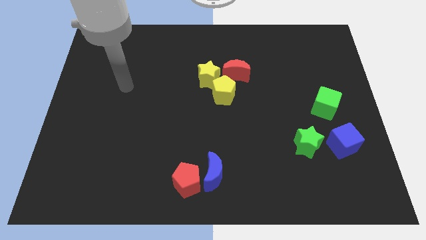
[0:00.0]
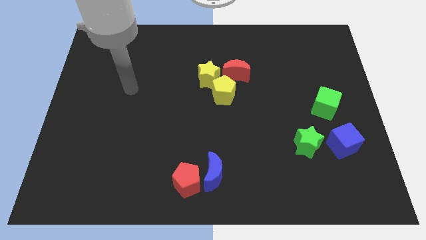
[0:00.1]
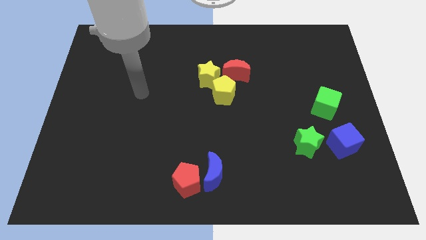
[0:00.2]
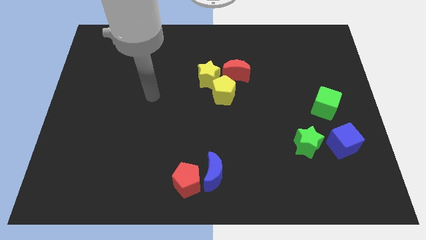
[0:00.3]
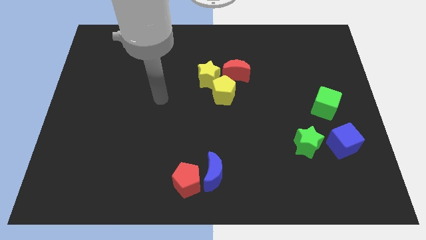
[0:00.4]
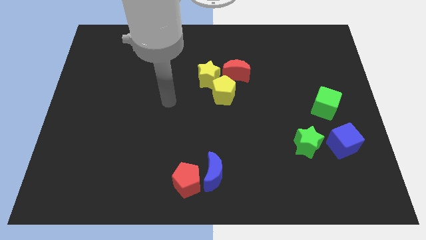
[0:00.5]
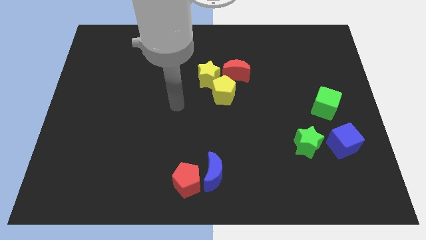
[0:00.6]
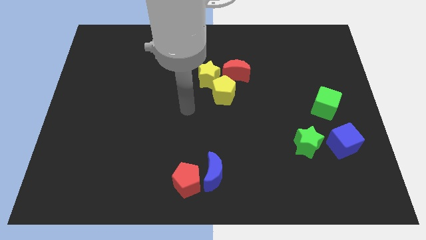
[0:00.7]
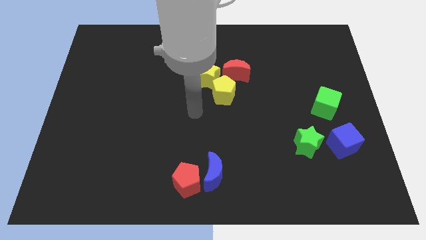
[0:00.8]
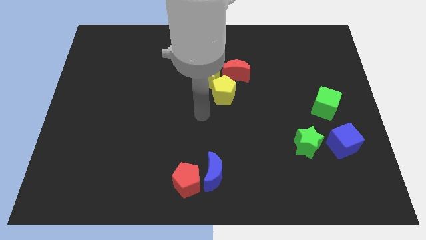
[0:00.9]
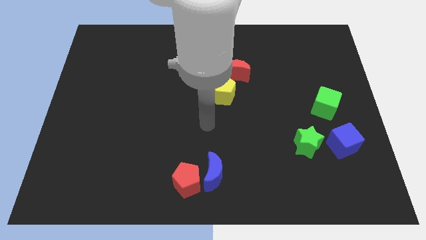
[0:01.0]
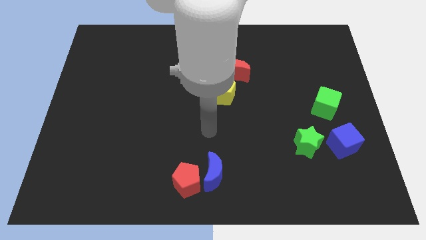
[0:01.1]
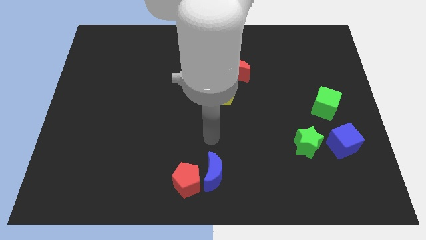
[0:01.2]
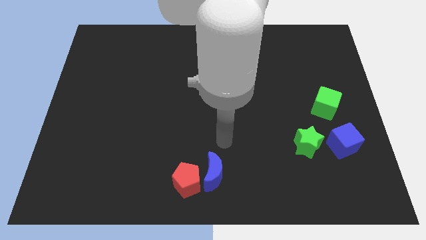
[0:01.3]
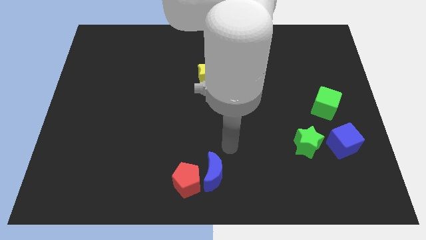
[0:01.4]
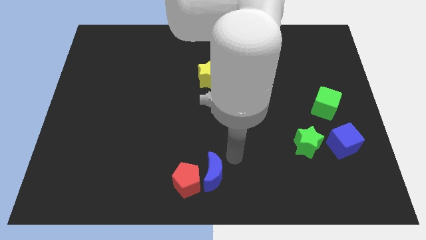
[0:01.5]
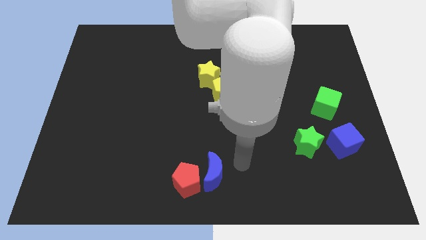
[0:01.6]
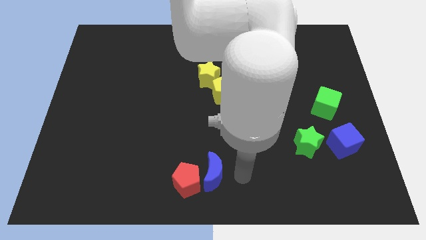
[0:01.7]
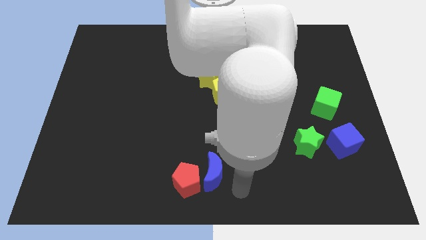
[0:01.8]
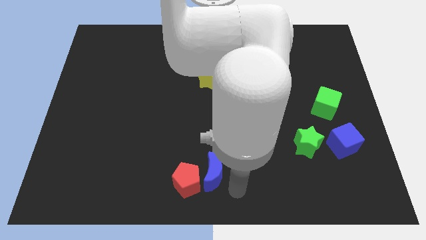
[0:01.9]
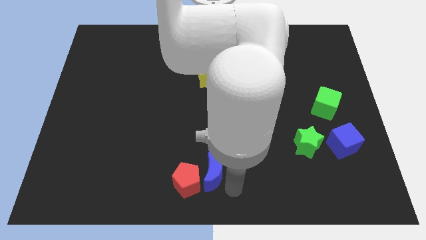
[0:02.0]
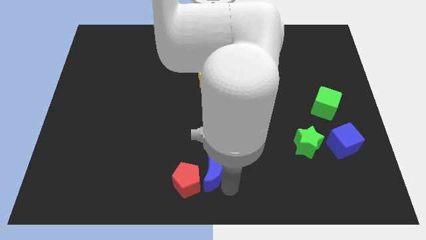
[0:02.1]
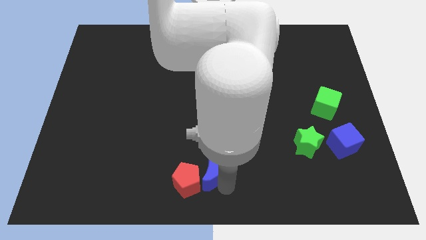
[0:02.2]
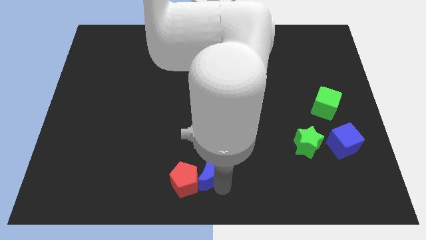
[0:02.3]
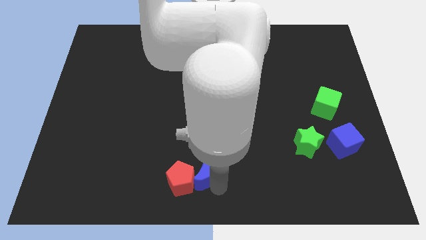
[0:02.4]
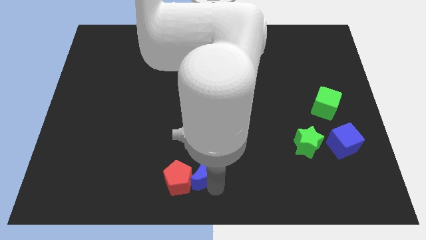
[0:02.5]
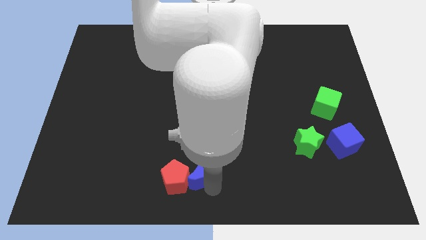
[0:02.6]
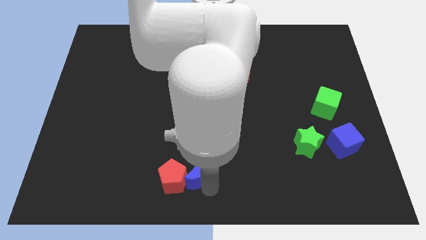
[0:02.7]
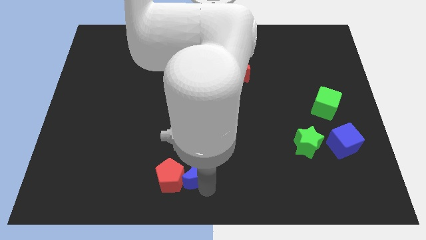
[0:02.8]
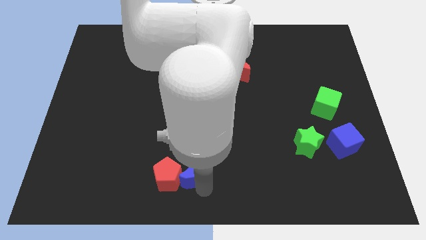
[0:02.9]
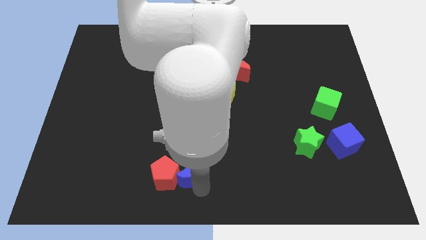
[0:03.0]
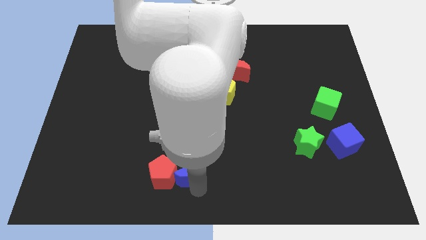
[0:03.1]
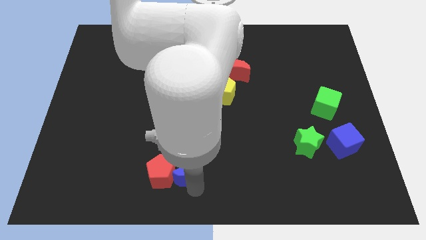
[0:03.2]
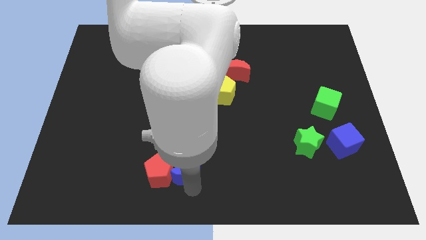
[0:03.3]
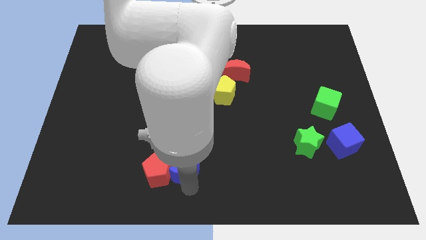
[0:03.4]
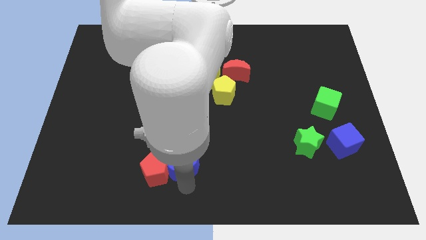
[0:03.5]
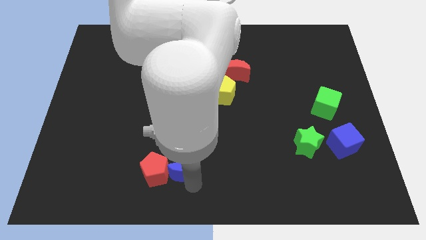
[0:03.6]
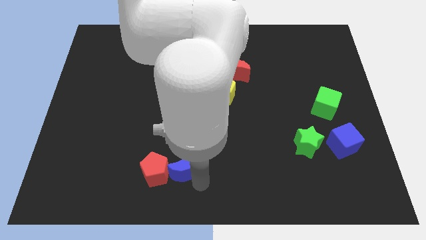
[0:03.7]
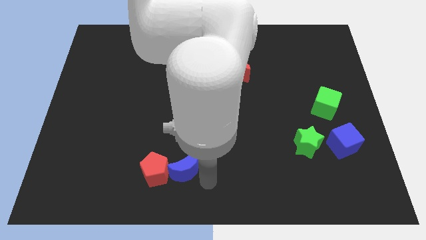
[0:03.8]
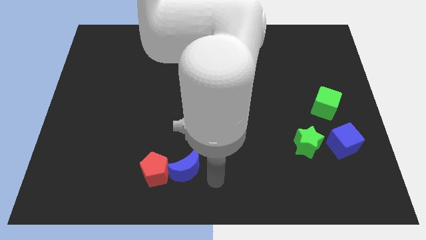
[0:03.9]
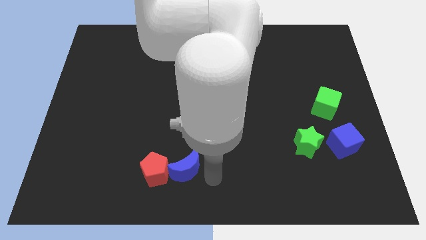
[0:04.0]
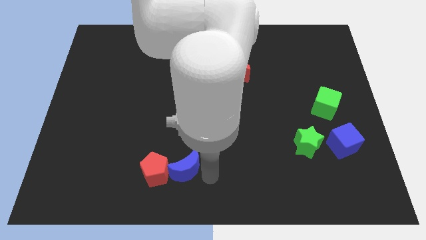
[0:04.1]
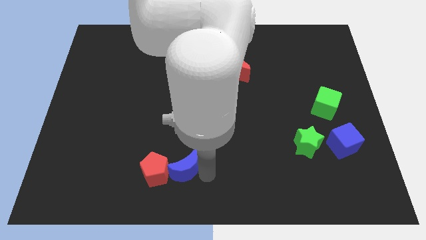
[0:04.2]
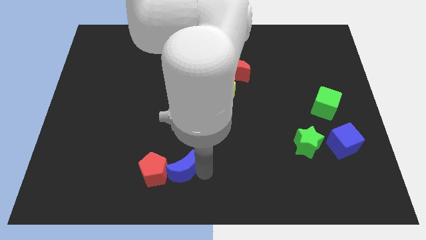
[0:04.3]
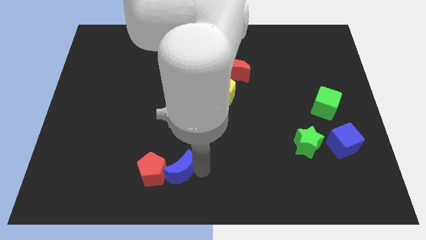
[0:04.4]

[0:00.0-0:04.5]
move the blue moon a bit left

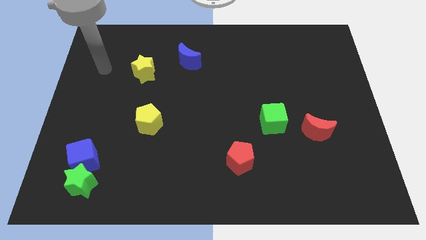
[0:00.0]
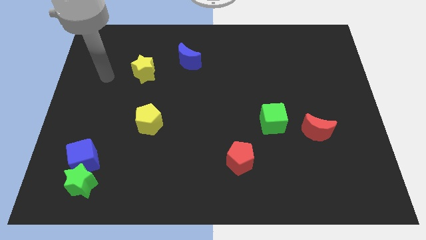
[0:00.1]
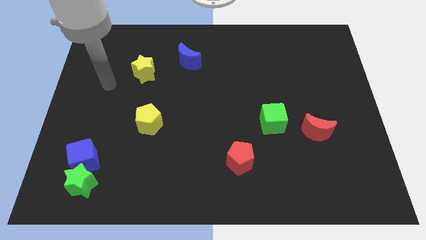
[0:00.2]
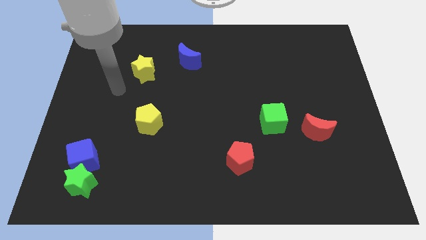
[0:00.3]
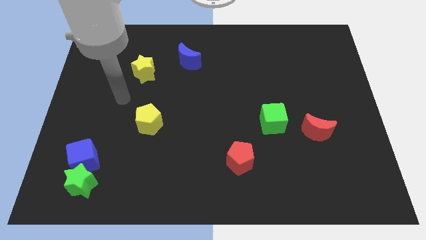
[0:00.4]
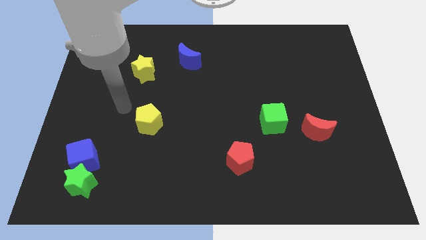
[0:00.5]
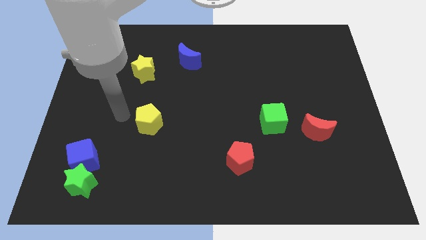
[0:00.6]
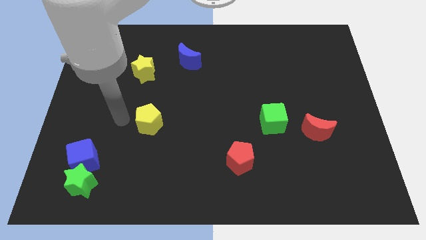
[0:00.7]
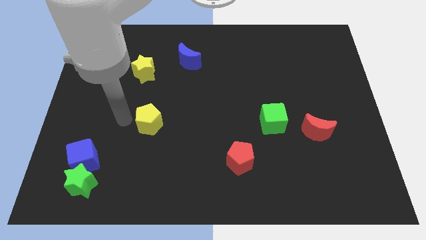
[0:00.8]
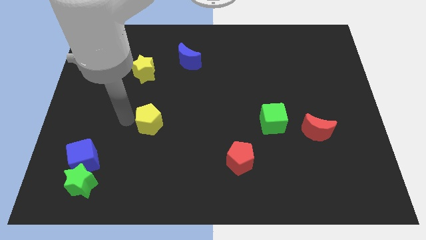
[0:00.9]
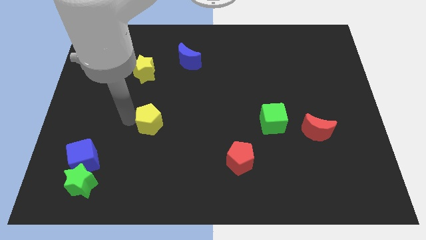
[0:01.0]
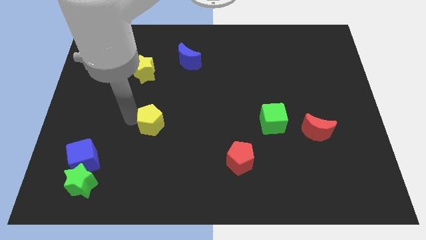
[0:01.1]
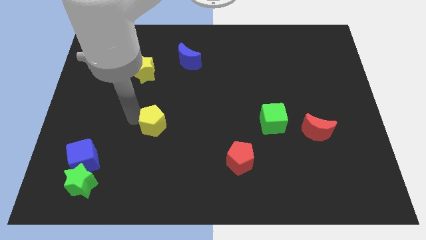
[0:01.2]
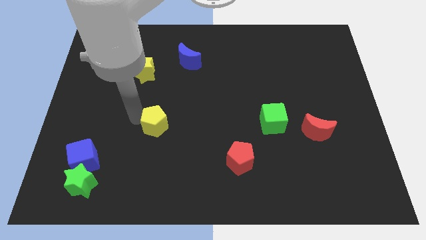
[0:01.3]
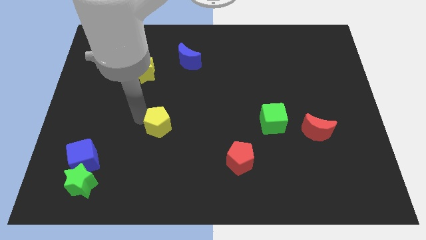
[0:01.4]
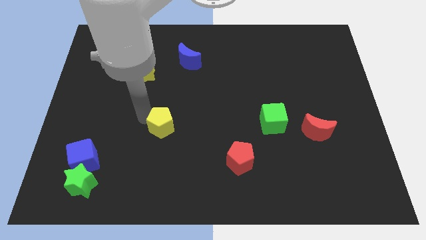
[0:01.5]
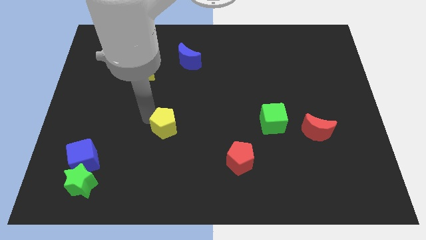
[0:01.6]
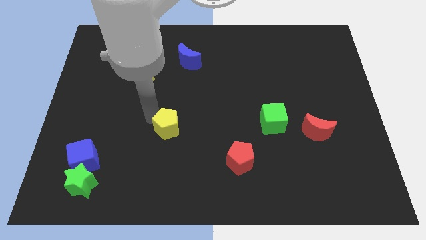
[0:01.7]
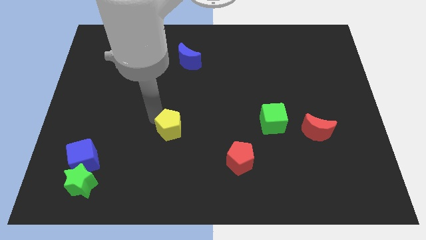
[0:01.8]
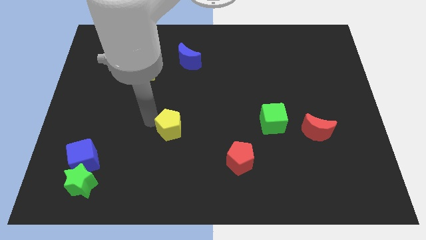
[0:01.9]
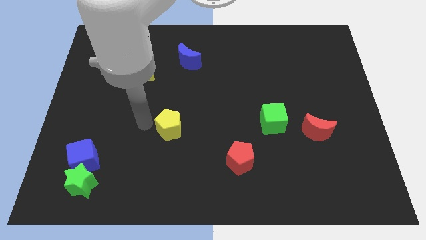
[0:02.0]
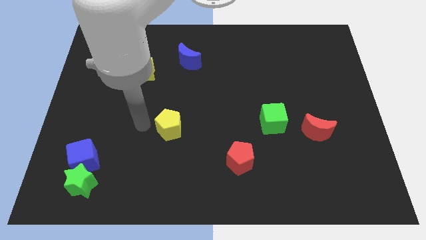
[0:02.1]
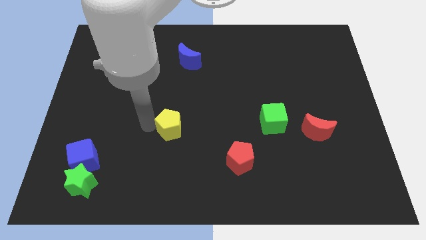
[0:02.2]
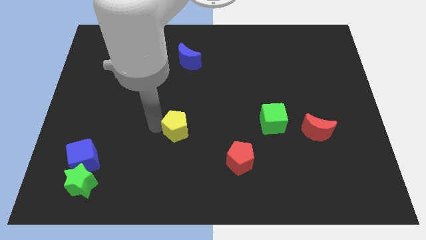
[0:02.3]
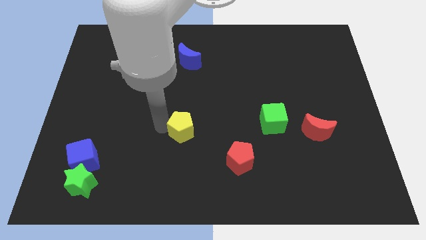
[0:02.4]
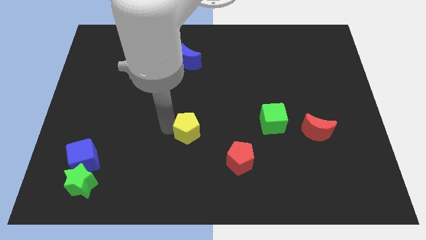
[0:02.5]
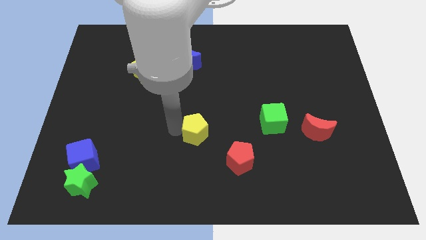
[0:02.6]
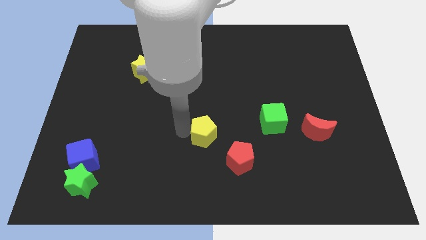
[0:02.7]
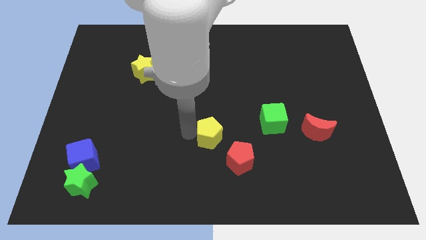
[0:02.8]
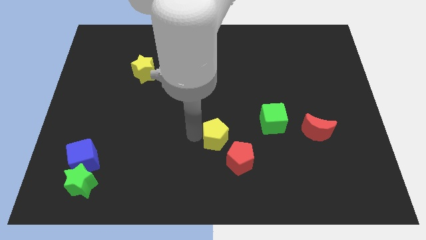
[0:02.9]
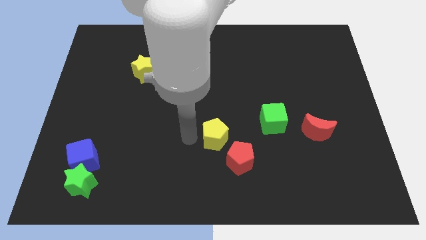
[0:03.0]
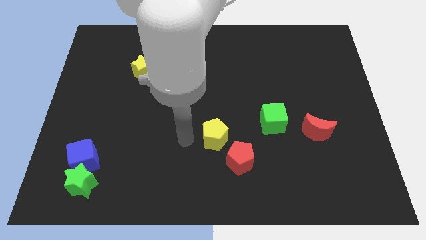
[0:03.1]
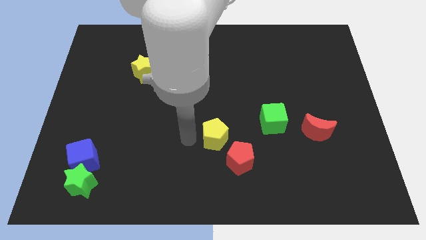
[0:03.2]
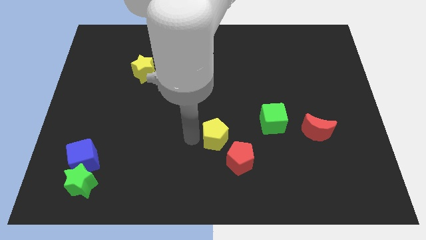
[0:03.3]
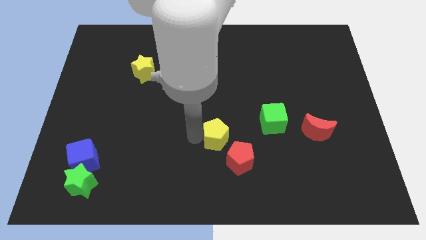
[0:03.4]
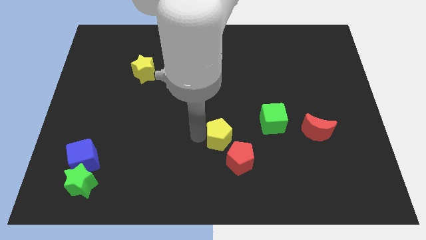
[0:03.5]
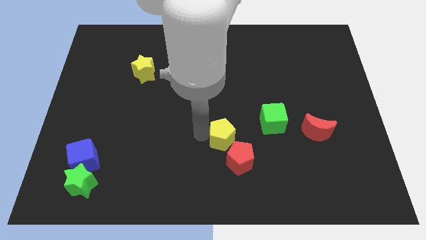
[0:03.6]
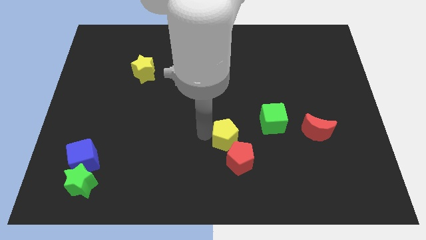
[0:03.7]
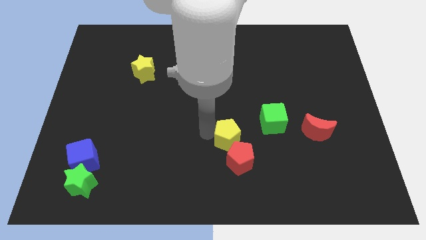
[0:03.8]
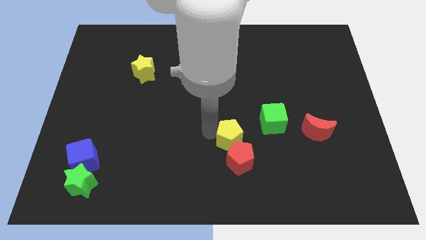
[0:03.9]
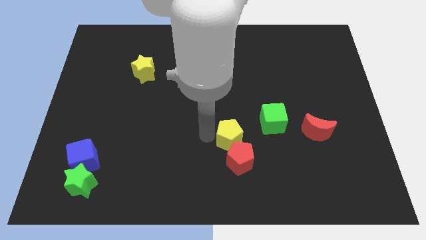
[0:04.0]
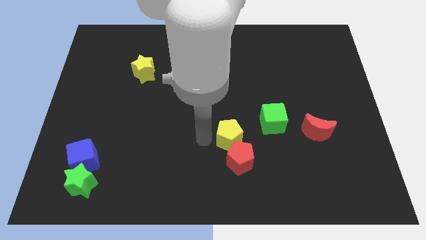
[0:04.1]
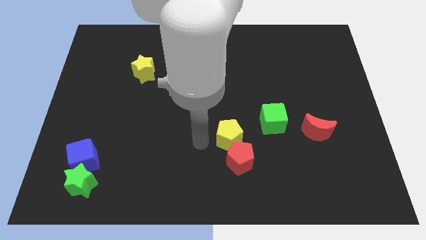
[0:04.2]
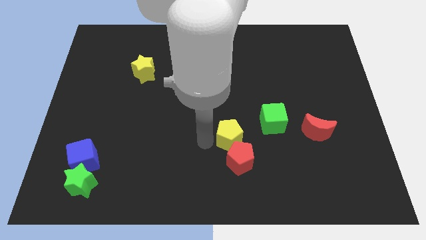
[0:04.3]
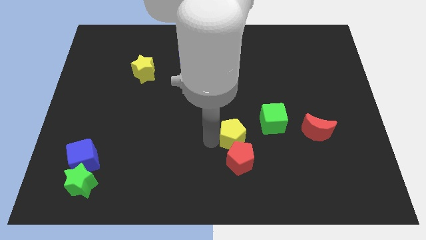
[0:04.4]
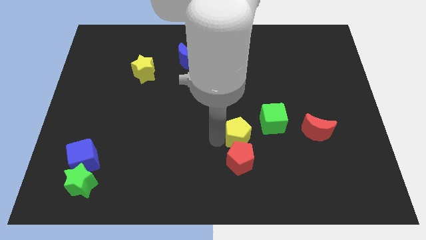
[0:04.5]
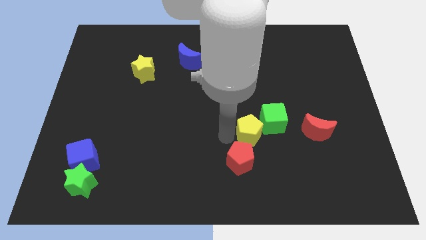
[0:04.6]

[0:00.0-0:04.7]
push the yellow pentagon right
